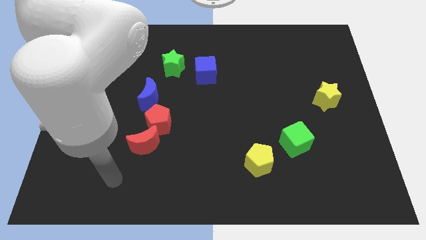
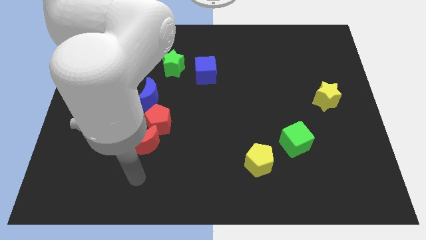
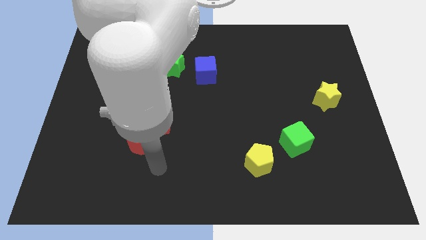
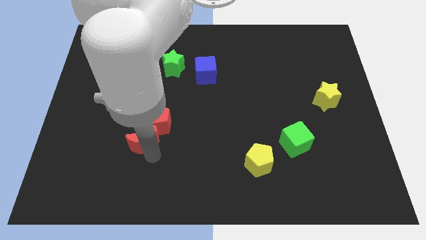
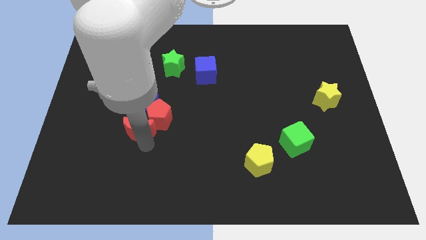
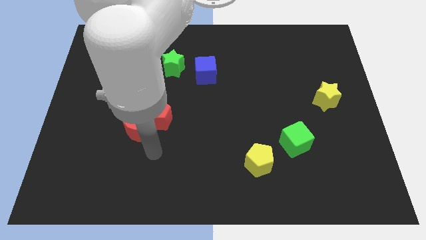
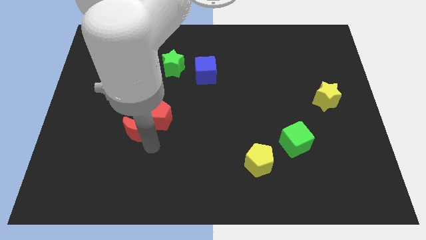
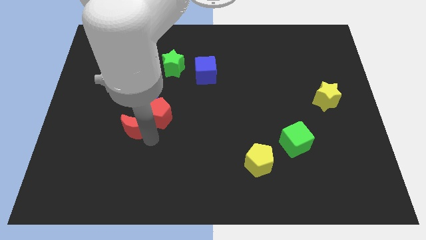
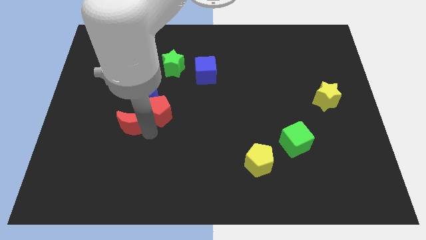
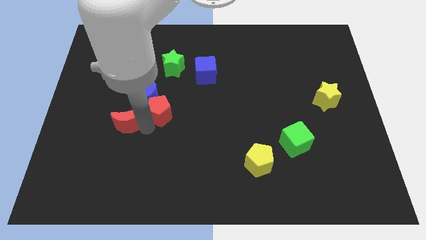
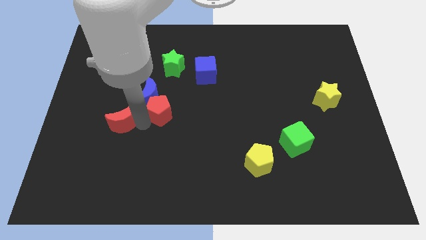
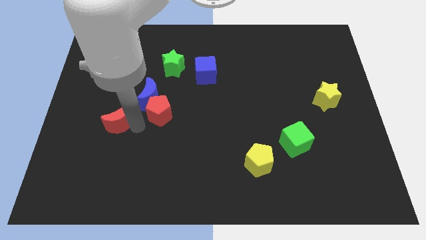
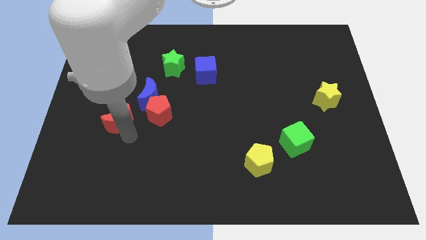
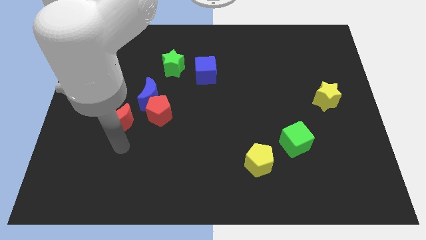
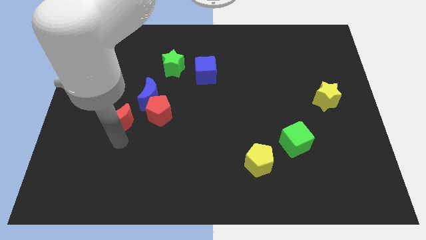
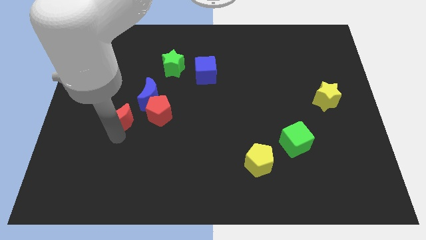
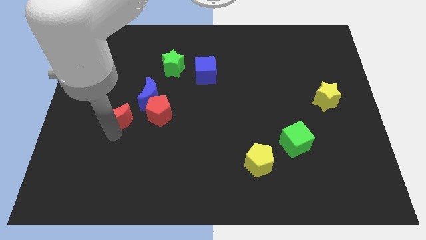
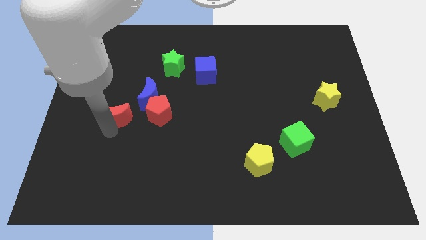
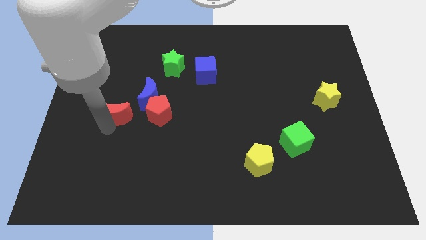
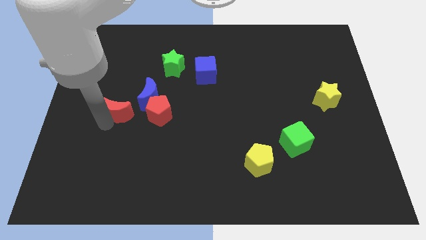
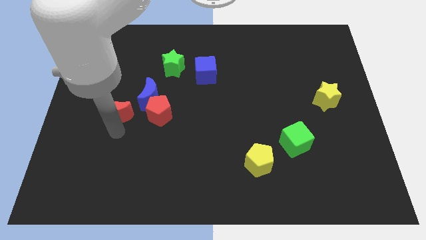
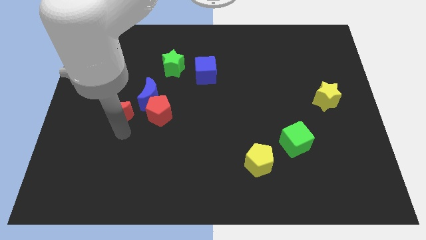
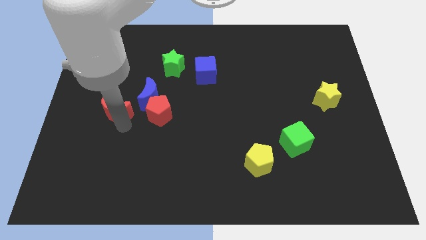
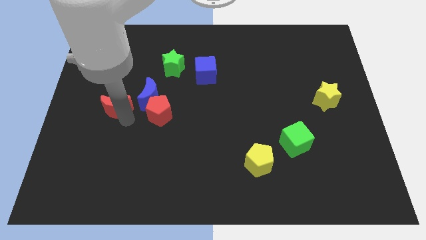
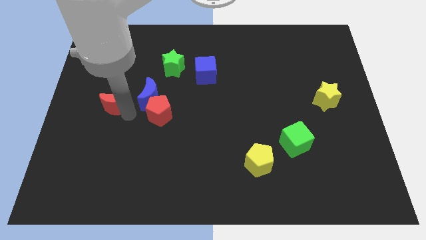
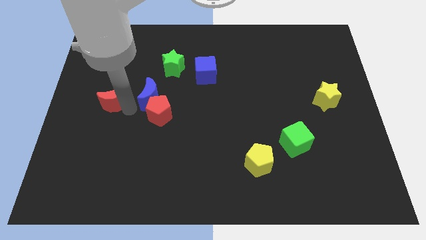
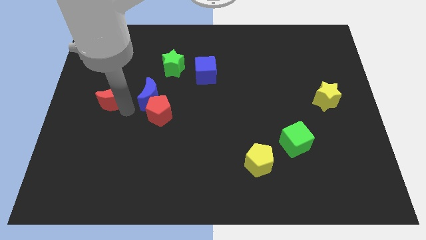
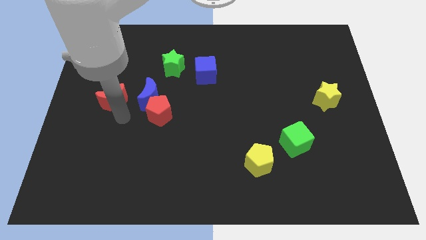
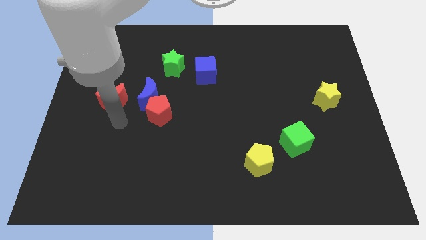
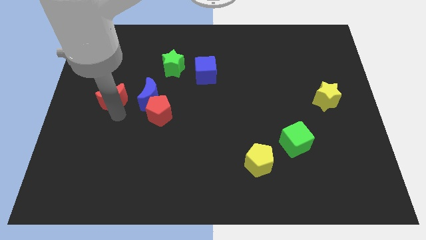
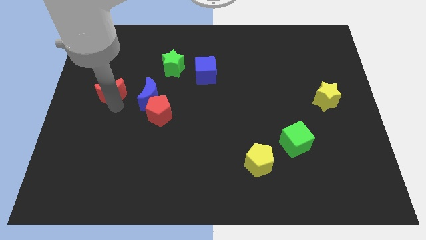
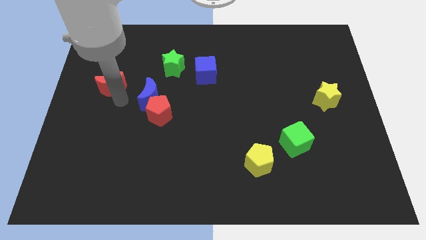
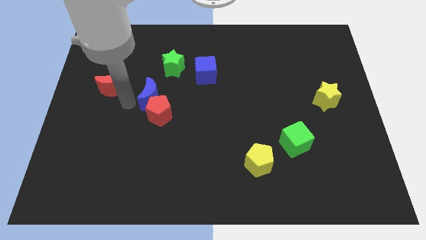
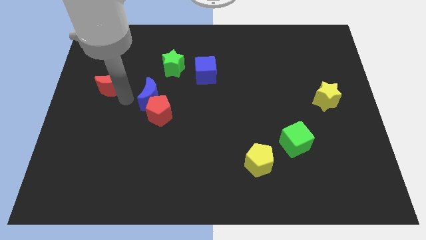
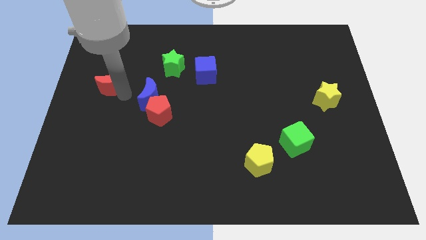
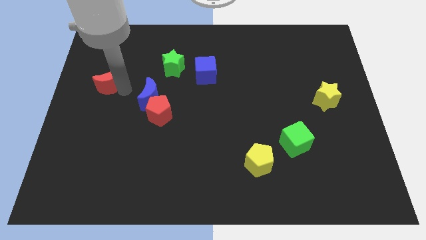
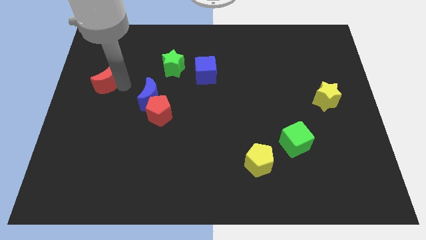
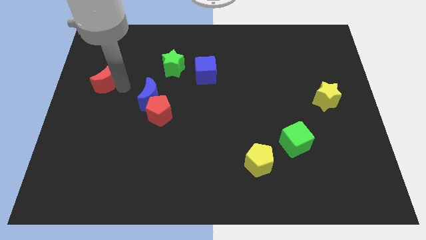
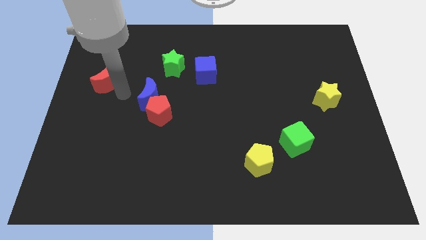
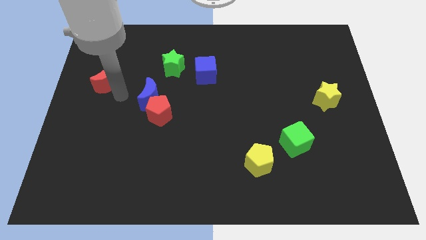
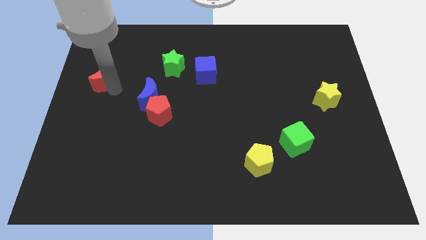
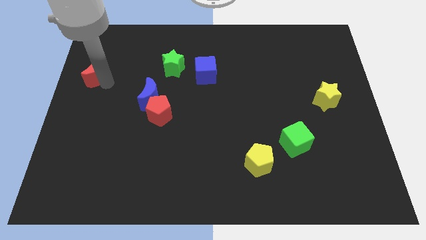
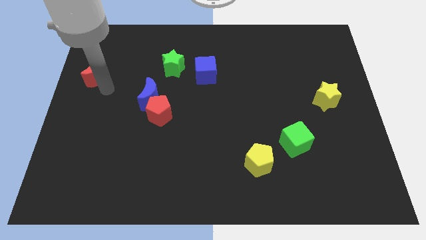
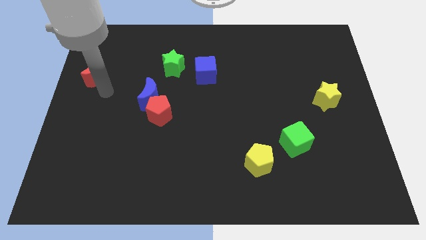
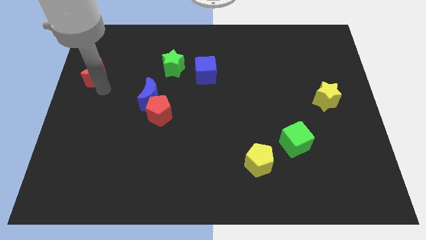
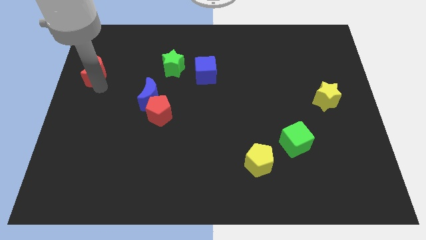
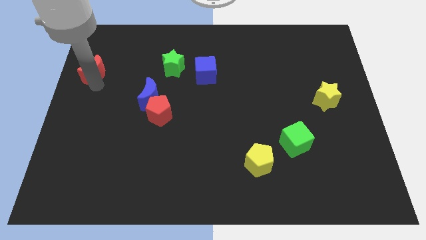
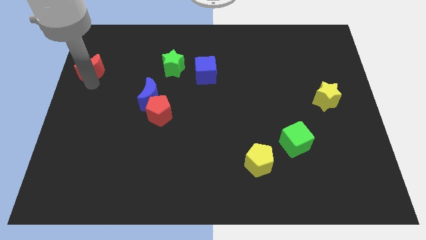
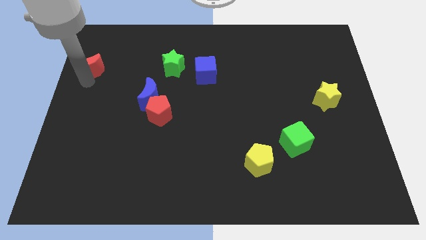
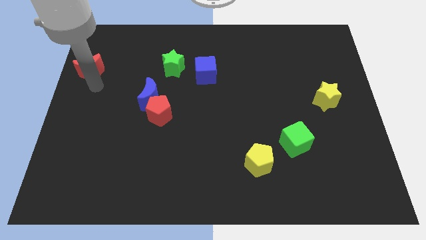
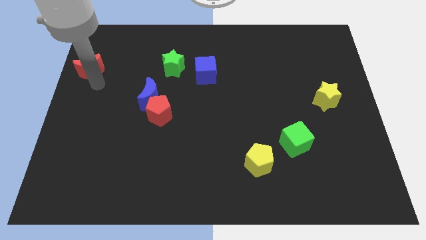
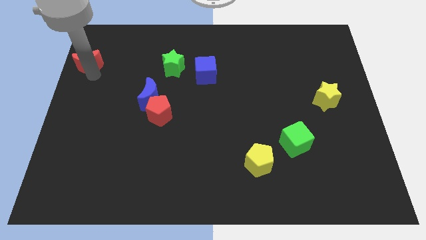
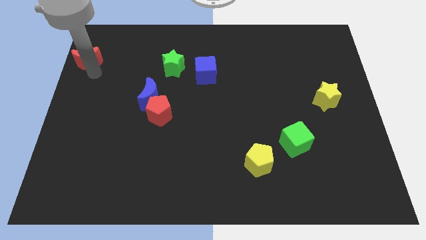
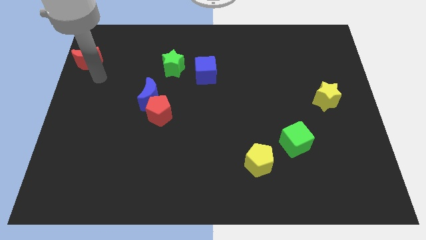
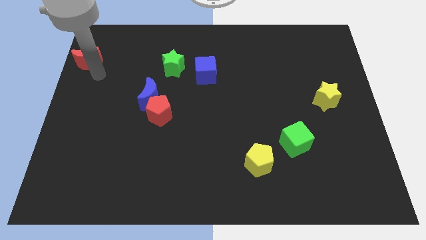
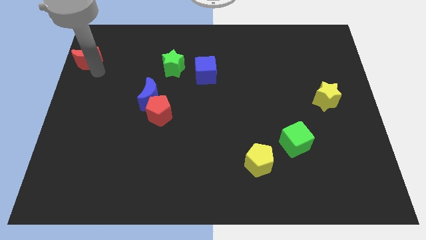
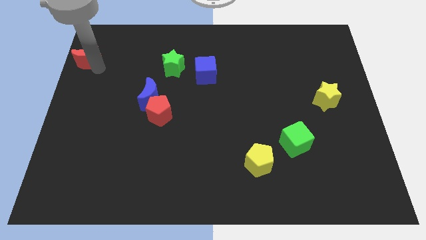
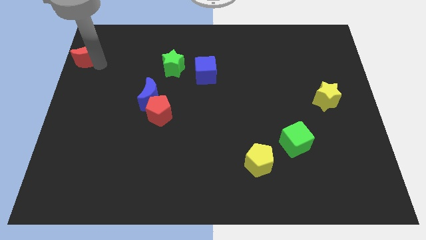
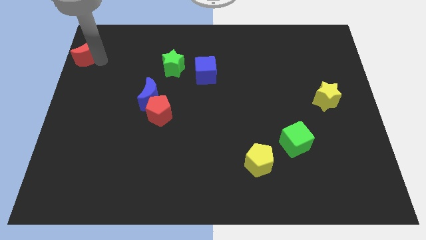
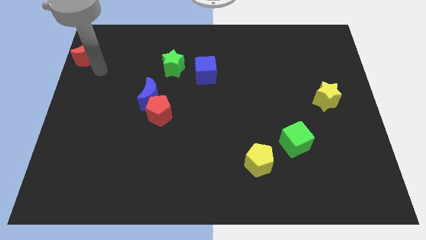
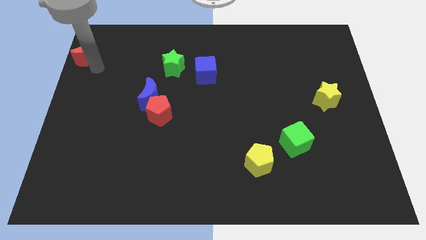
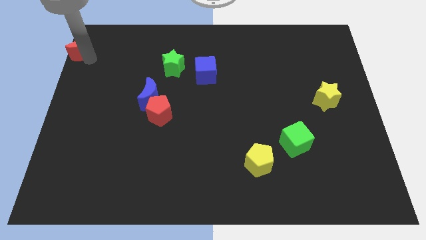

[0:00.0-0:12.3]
move the red moon to the top left
